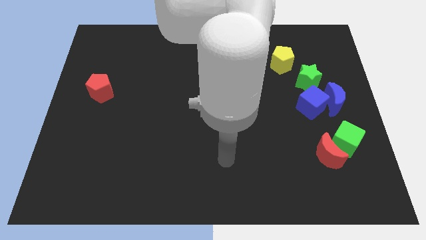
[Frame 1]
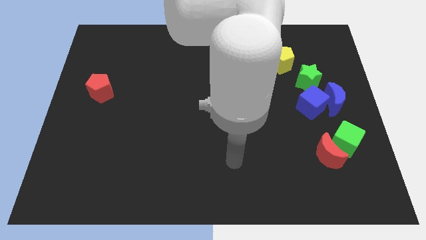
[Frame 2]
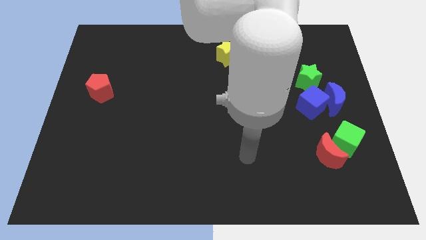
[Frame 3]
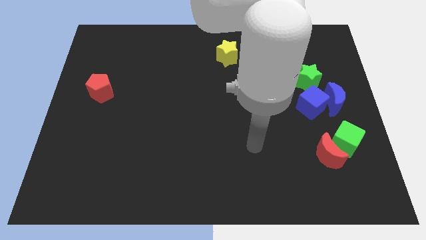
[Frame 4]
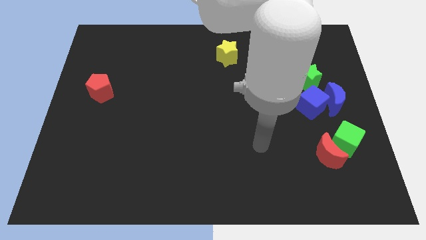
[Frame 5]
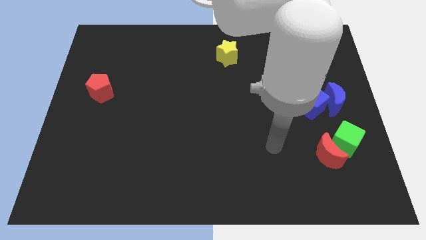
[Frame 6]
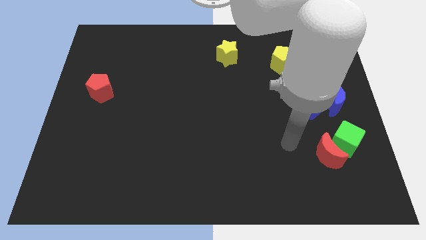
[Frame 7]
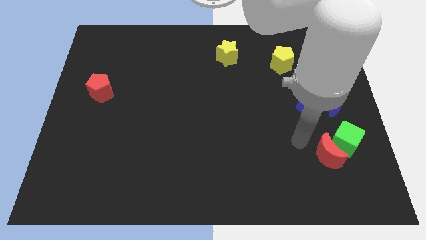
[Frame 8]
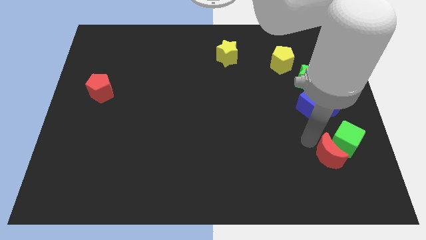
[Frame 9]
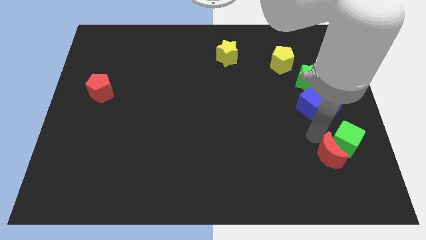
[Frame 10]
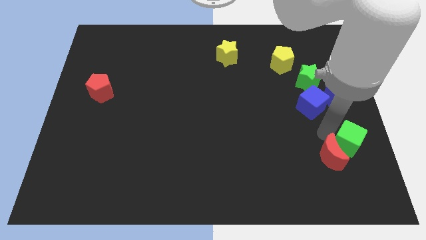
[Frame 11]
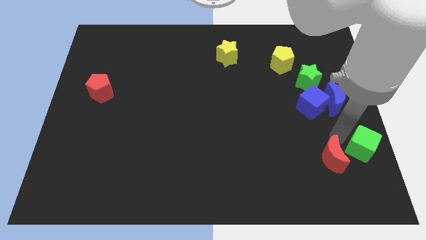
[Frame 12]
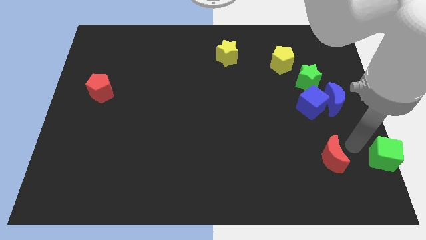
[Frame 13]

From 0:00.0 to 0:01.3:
separate the red moon from the green cube

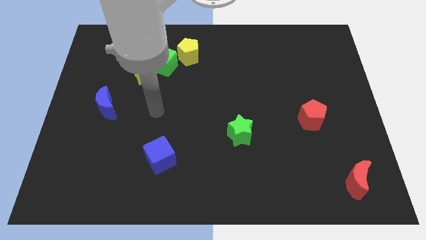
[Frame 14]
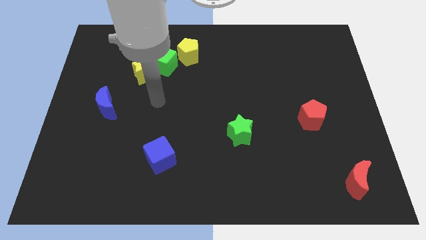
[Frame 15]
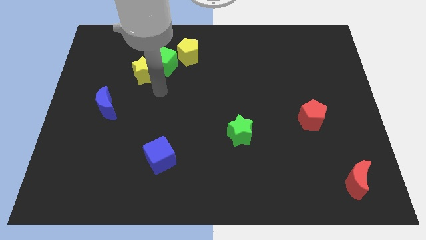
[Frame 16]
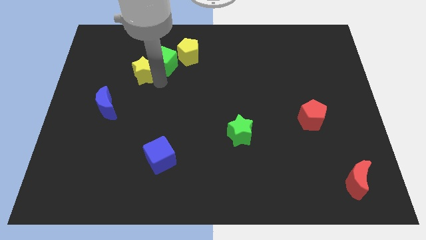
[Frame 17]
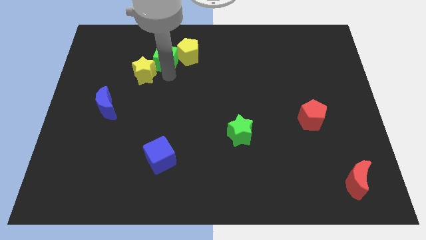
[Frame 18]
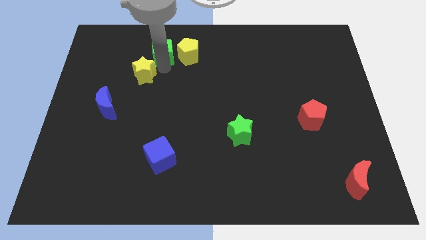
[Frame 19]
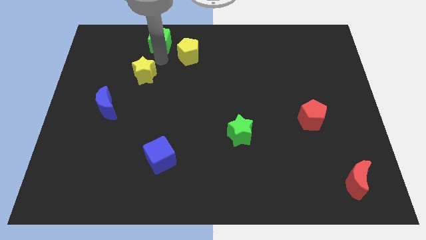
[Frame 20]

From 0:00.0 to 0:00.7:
pull the yellow star apart from the green cube

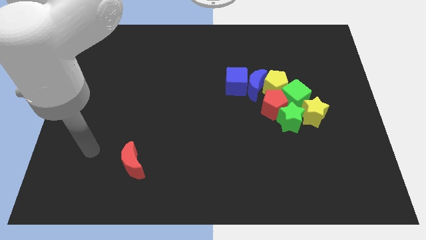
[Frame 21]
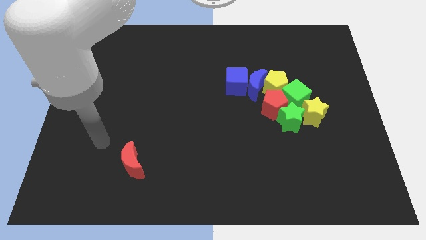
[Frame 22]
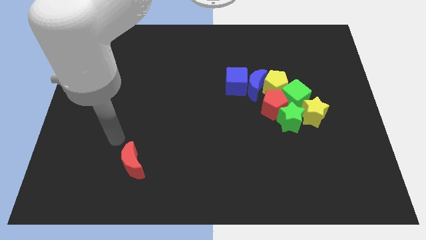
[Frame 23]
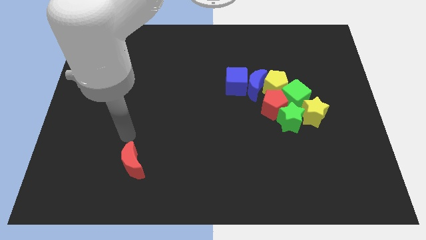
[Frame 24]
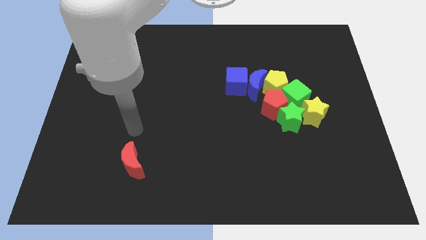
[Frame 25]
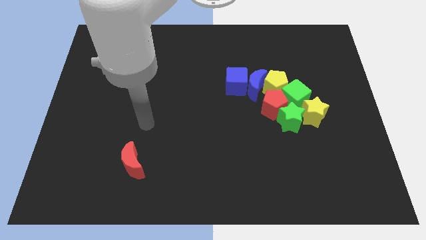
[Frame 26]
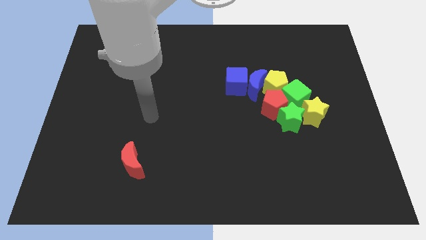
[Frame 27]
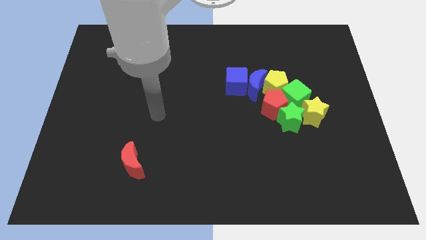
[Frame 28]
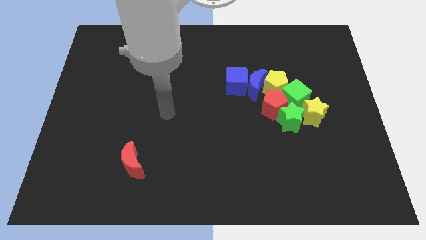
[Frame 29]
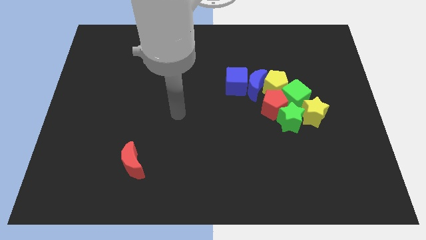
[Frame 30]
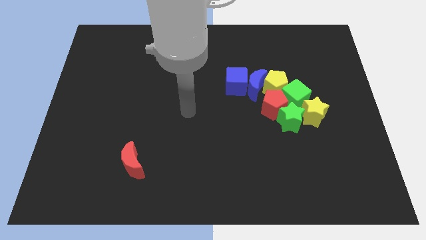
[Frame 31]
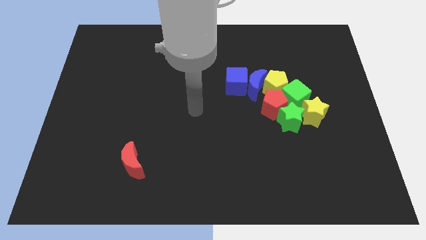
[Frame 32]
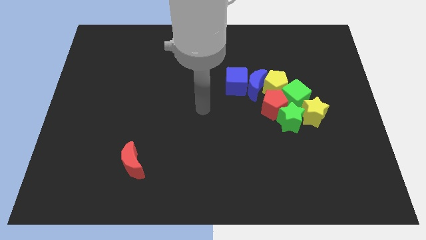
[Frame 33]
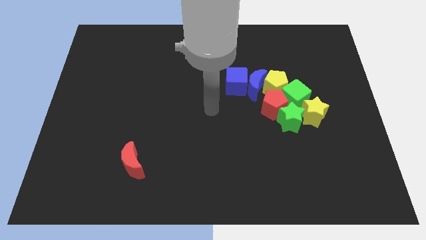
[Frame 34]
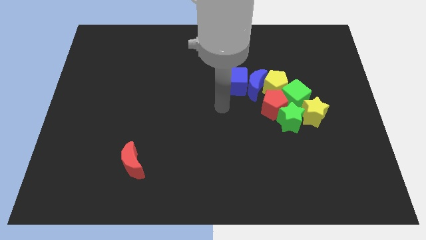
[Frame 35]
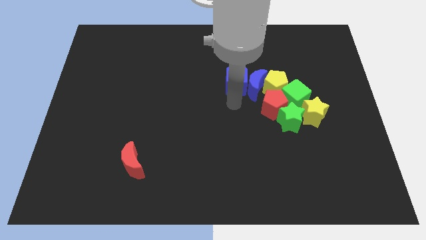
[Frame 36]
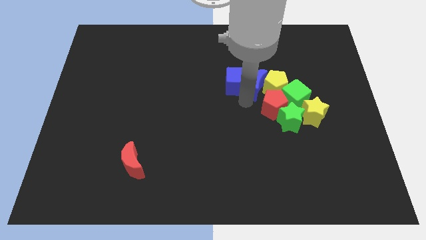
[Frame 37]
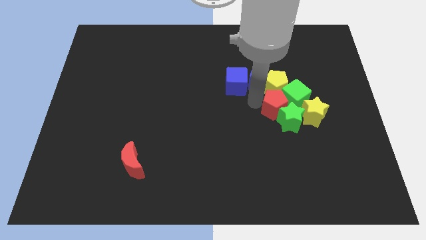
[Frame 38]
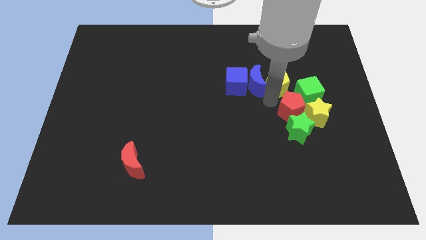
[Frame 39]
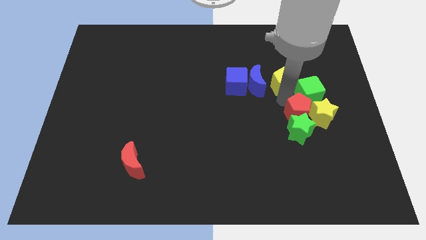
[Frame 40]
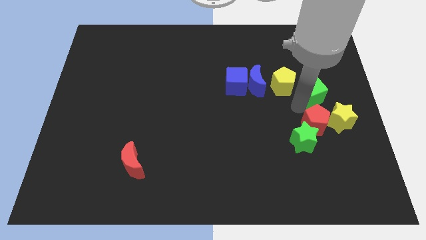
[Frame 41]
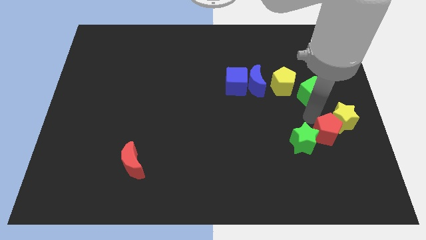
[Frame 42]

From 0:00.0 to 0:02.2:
move the green star away from the clump

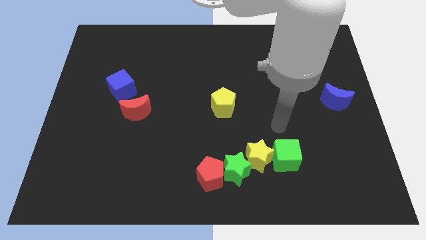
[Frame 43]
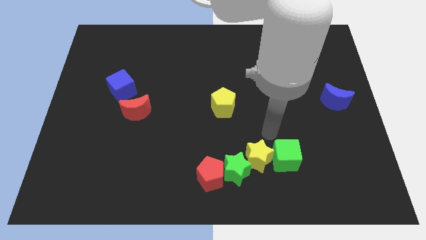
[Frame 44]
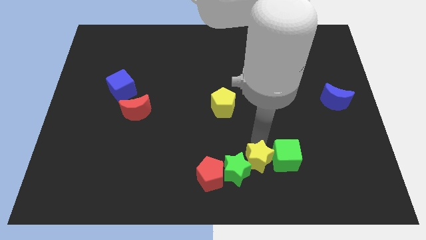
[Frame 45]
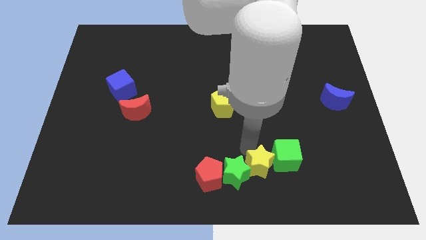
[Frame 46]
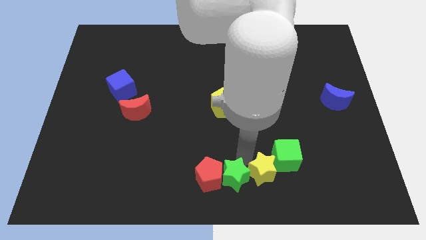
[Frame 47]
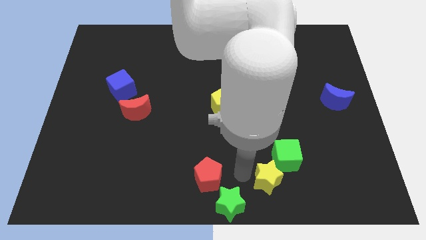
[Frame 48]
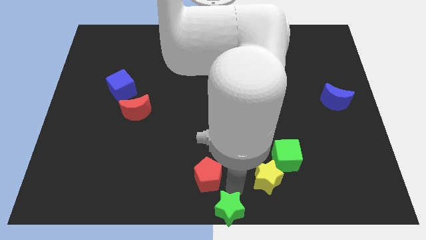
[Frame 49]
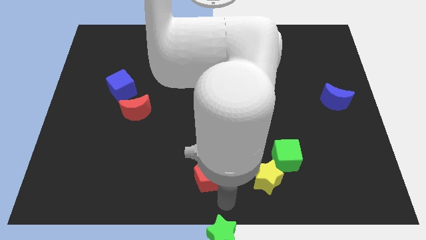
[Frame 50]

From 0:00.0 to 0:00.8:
pull the red pentagon apart from the green star

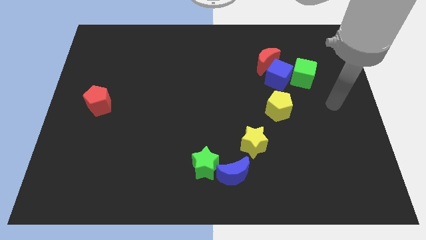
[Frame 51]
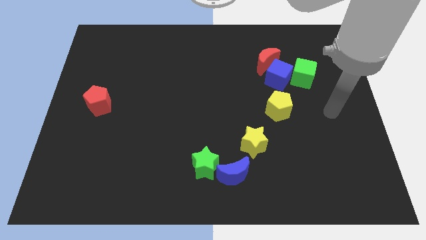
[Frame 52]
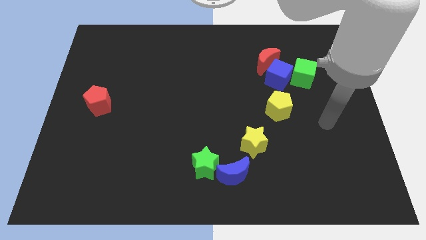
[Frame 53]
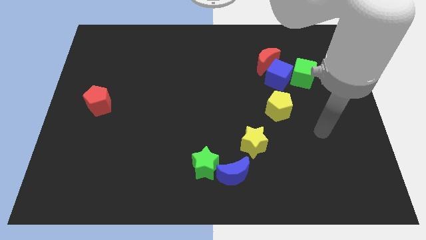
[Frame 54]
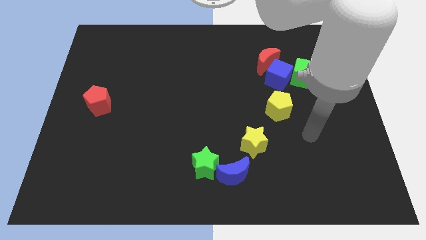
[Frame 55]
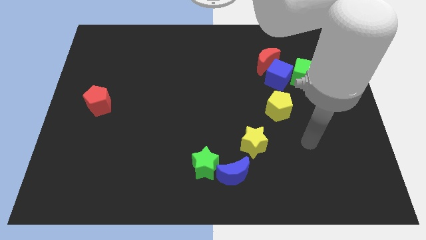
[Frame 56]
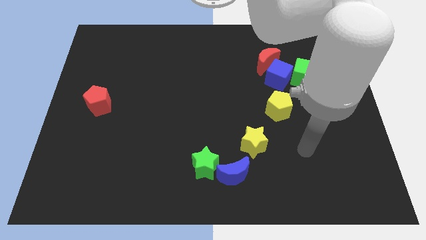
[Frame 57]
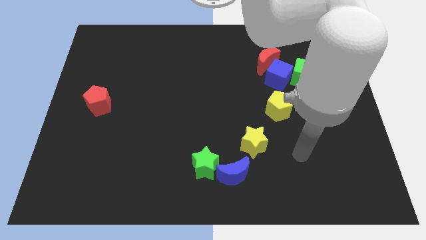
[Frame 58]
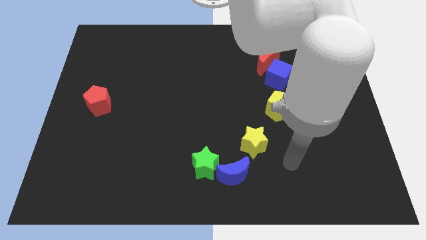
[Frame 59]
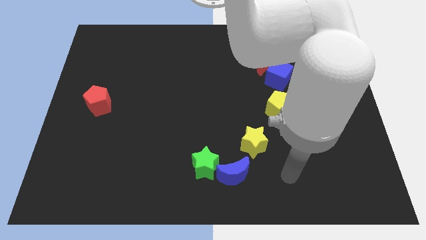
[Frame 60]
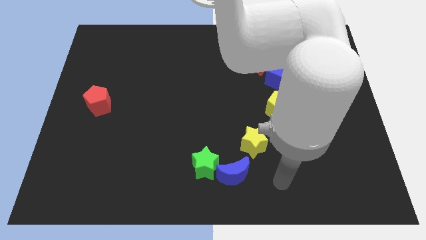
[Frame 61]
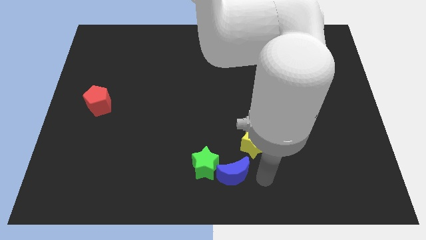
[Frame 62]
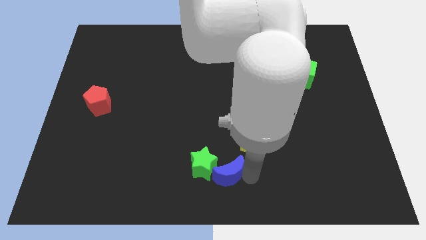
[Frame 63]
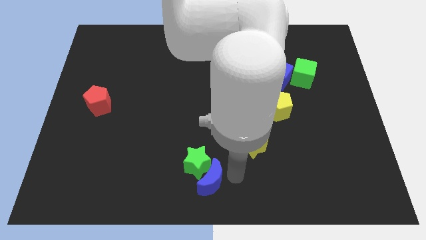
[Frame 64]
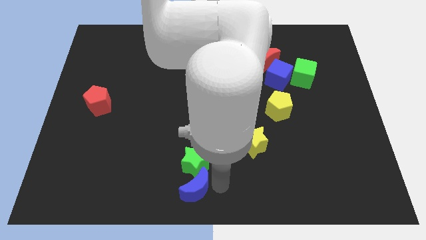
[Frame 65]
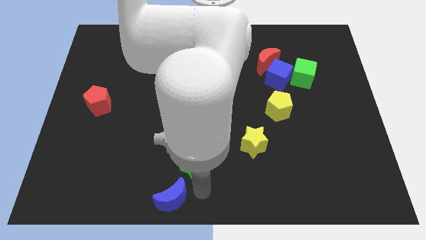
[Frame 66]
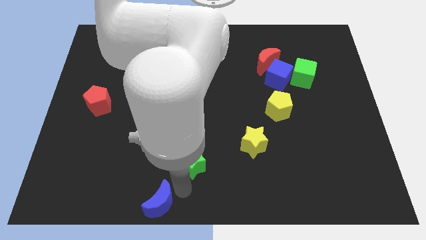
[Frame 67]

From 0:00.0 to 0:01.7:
pull the green star apart from the blue moon

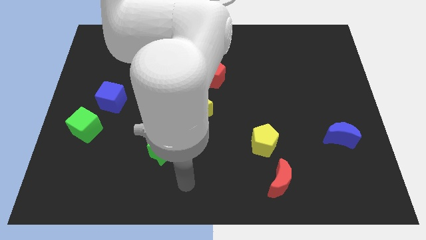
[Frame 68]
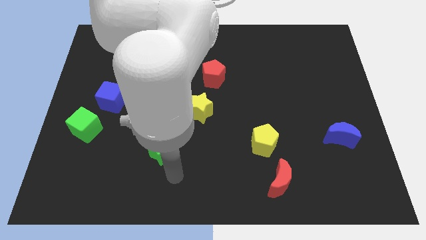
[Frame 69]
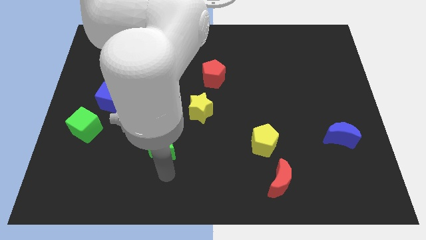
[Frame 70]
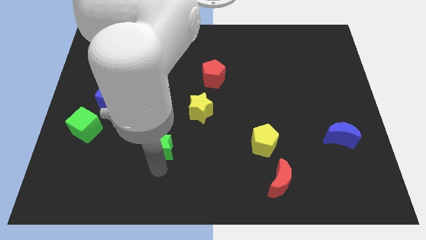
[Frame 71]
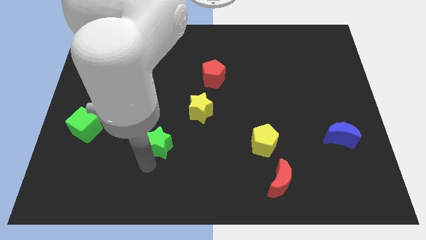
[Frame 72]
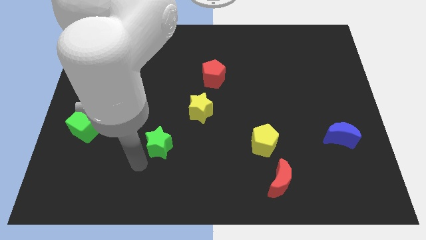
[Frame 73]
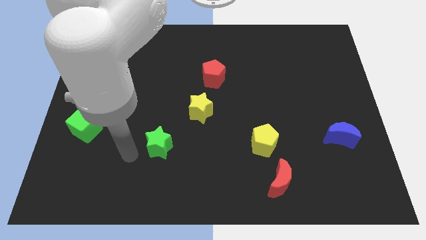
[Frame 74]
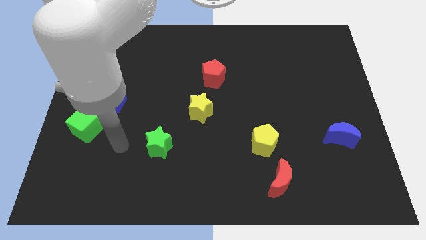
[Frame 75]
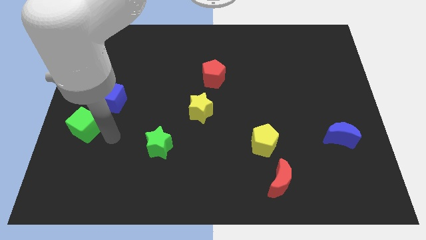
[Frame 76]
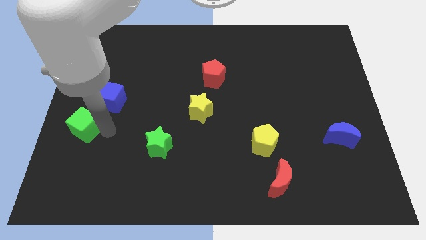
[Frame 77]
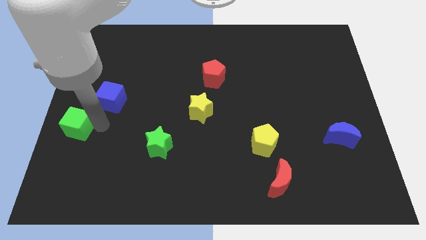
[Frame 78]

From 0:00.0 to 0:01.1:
move the blue cube away from the green cube

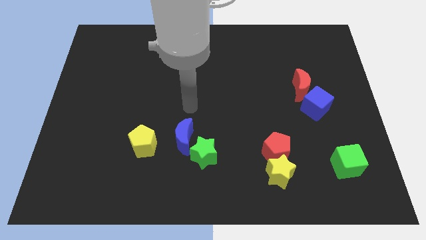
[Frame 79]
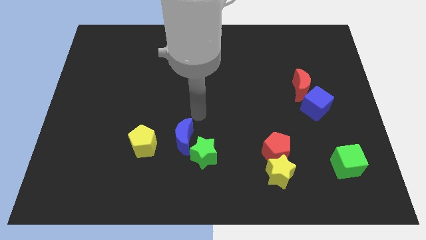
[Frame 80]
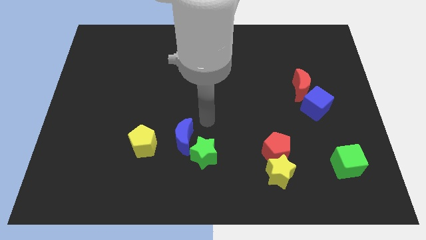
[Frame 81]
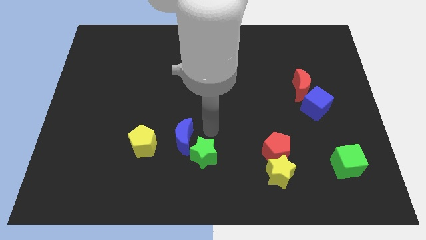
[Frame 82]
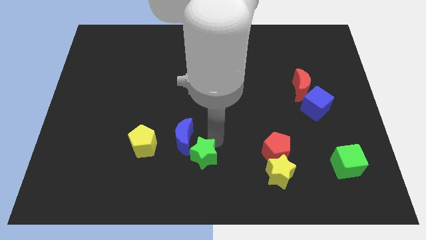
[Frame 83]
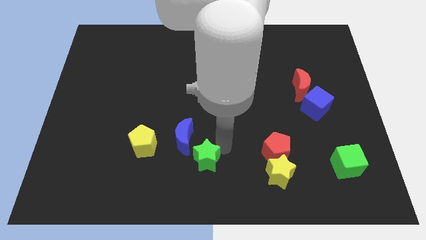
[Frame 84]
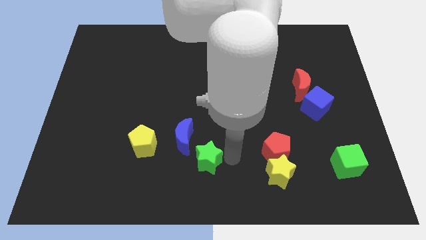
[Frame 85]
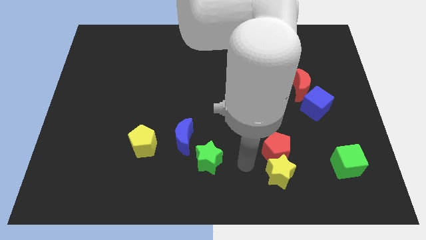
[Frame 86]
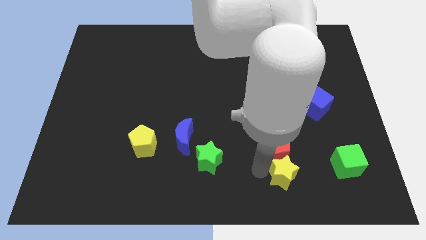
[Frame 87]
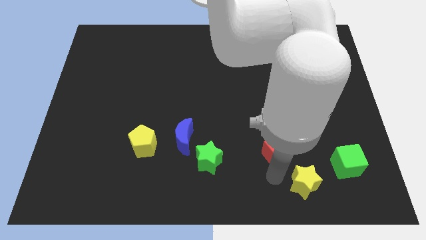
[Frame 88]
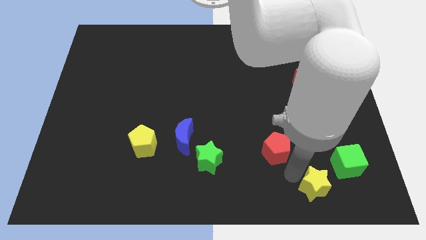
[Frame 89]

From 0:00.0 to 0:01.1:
separate the red pentagon from the yellow star

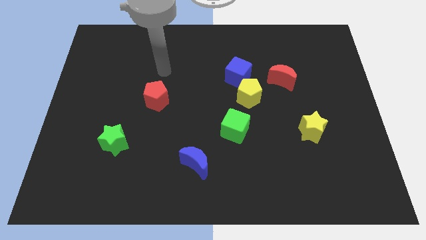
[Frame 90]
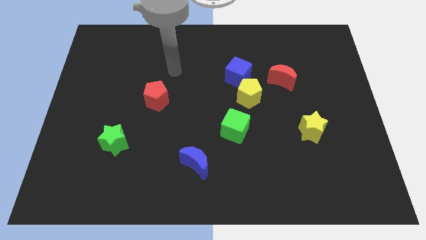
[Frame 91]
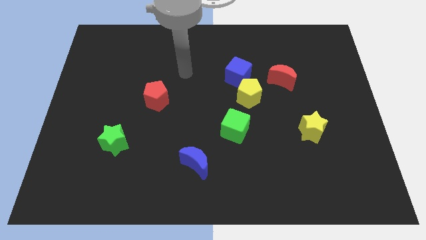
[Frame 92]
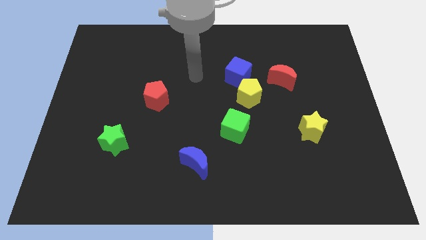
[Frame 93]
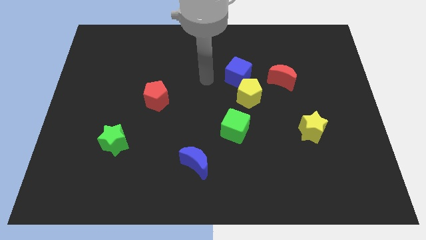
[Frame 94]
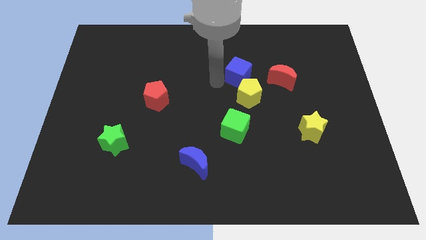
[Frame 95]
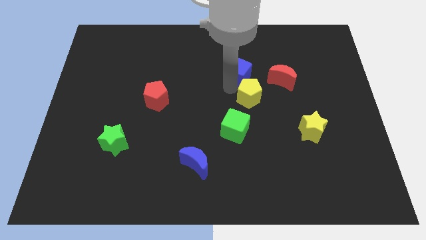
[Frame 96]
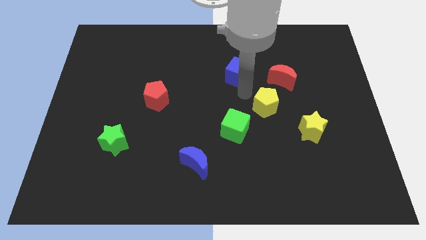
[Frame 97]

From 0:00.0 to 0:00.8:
move the blue cube away from the yellow pentagon
